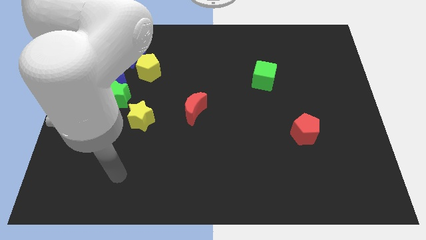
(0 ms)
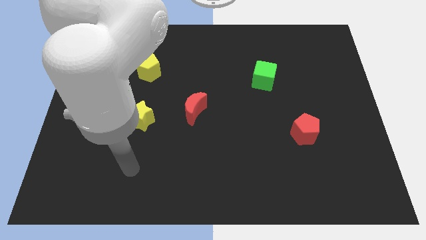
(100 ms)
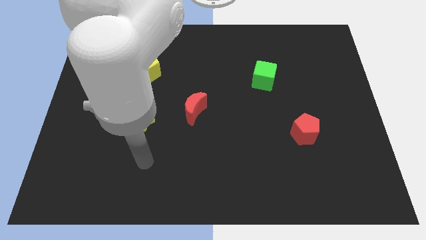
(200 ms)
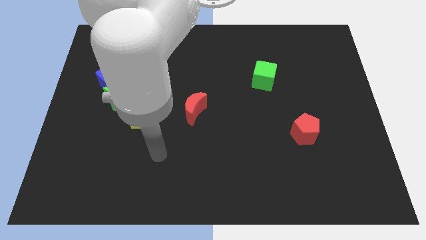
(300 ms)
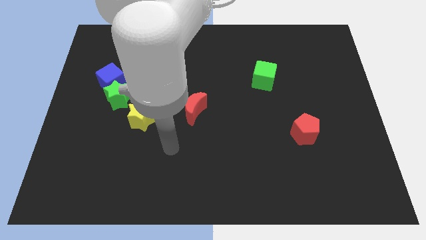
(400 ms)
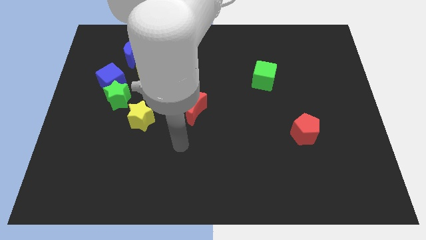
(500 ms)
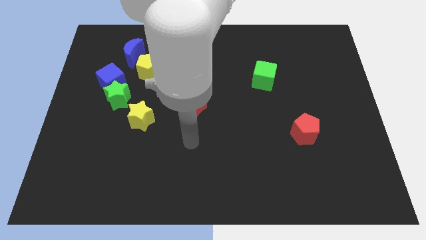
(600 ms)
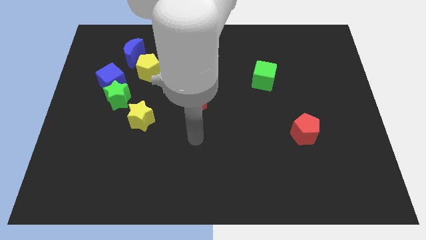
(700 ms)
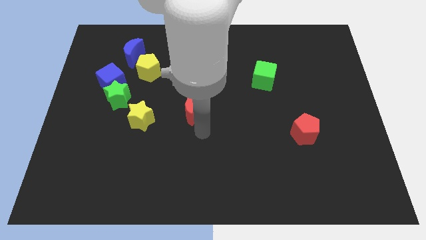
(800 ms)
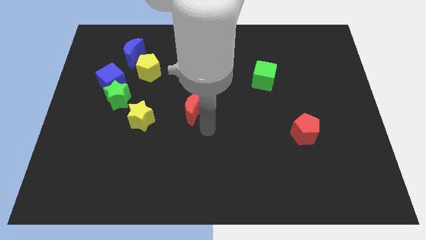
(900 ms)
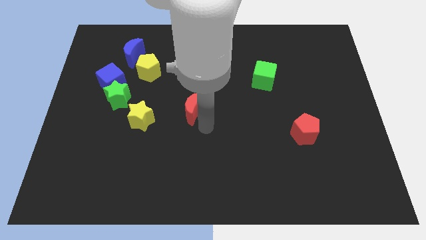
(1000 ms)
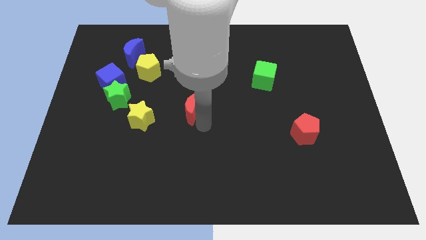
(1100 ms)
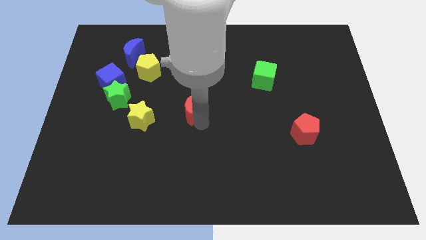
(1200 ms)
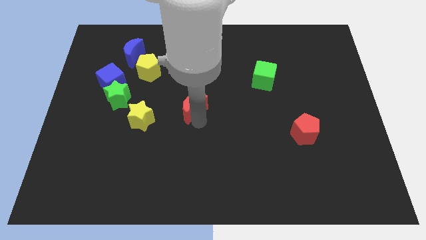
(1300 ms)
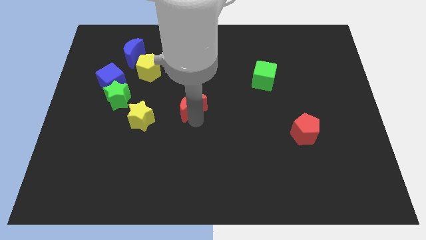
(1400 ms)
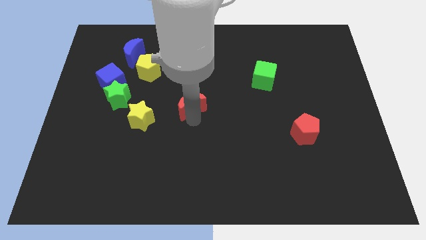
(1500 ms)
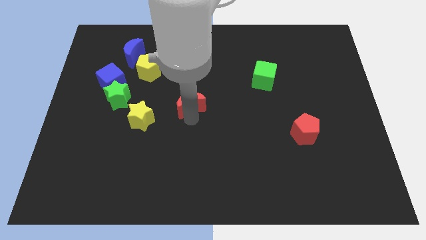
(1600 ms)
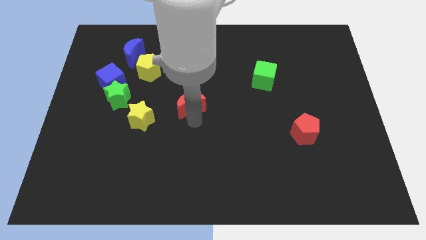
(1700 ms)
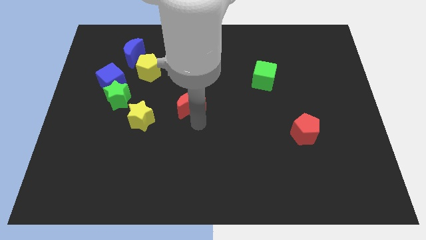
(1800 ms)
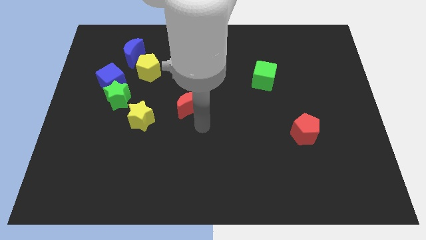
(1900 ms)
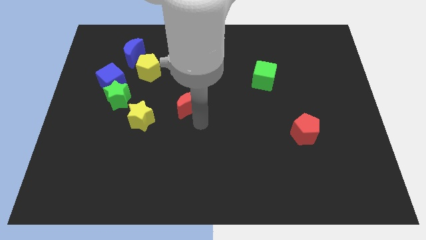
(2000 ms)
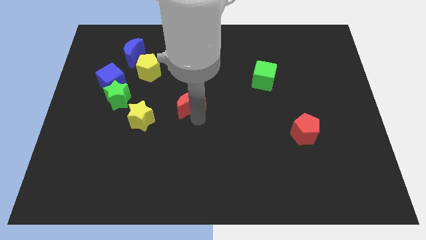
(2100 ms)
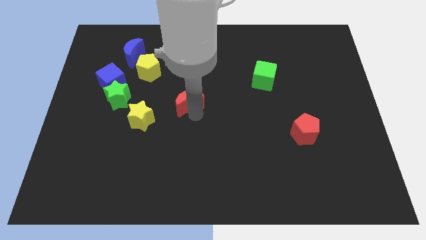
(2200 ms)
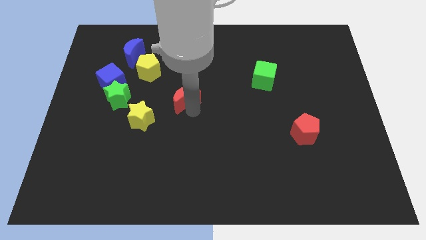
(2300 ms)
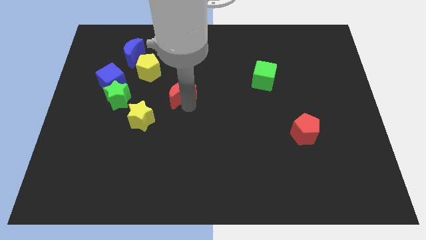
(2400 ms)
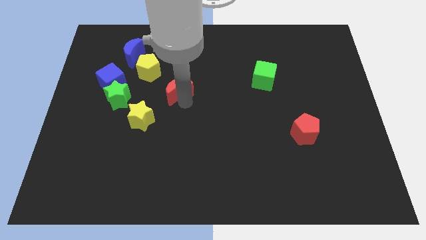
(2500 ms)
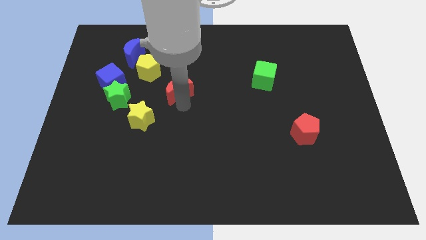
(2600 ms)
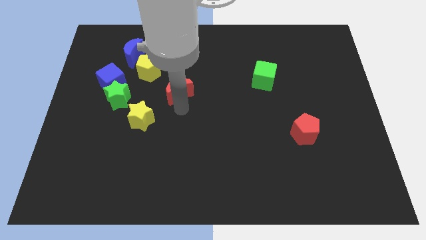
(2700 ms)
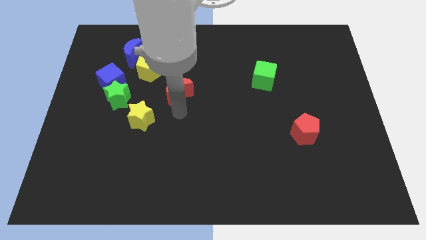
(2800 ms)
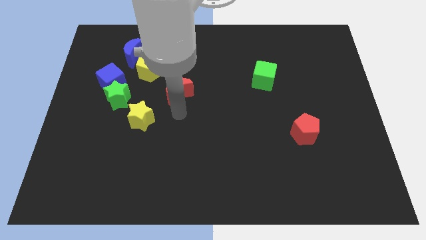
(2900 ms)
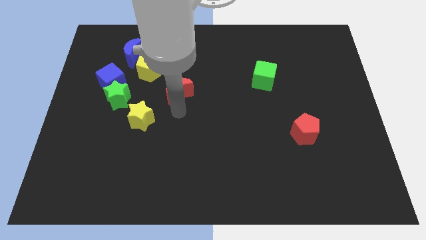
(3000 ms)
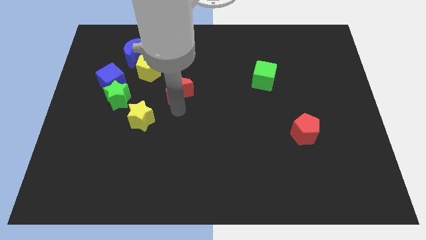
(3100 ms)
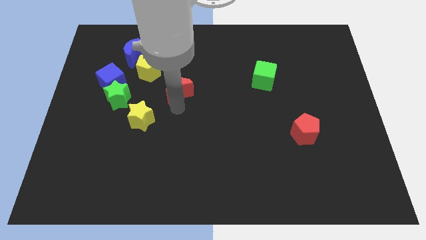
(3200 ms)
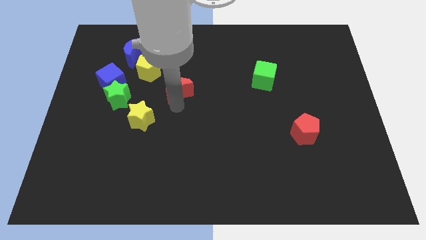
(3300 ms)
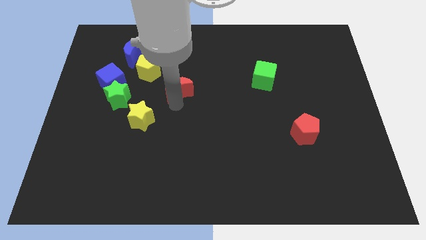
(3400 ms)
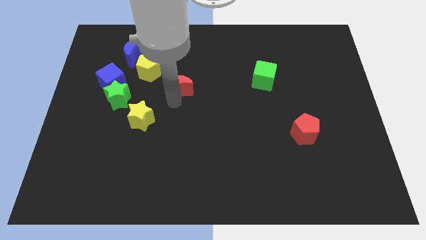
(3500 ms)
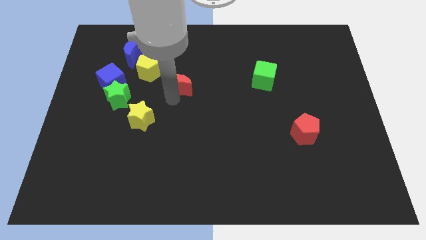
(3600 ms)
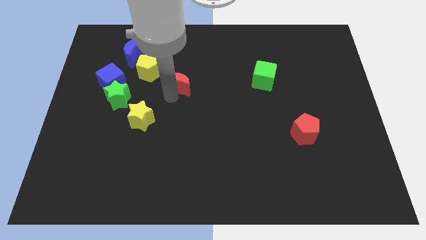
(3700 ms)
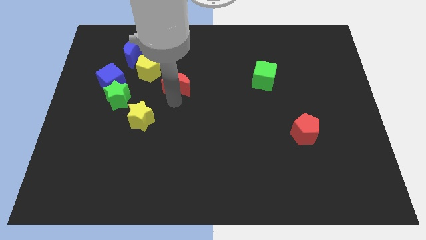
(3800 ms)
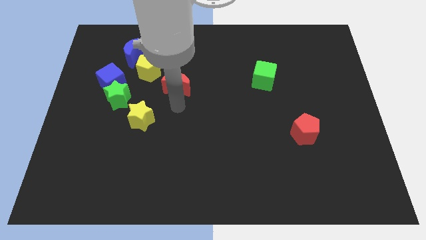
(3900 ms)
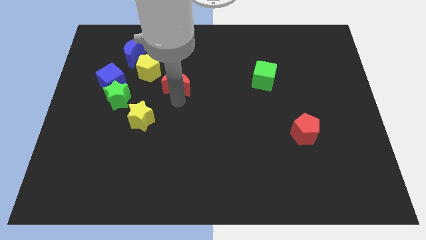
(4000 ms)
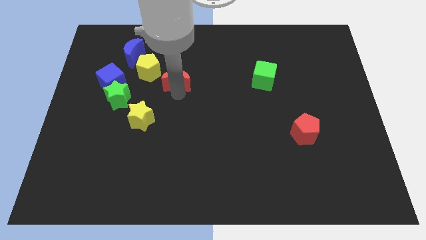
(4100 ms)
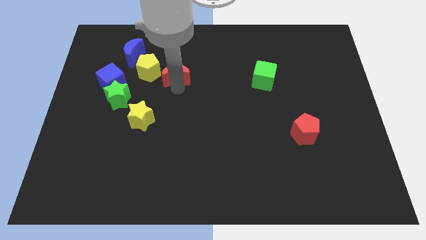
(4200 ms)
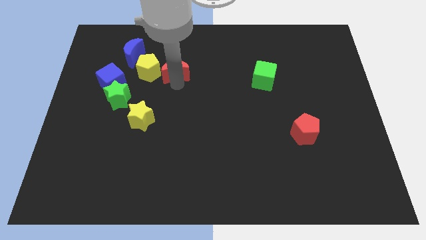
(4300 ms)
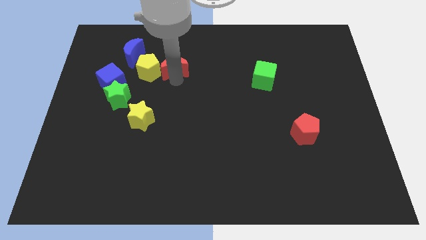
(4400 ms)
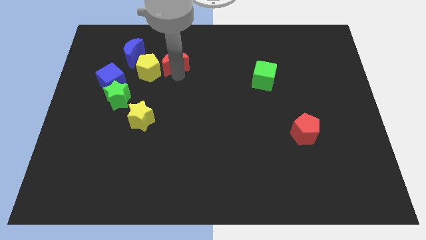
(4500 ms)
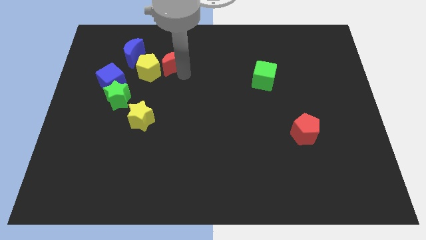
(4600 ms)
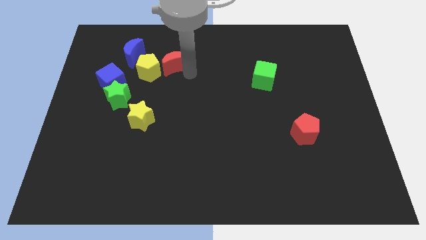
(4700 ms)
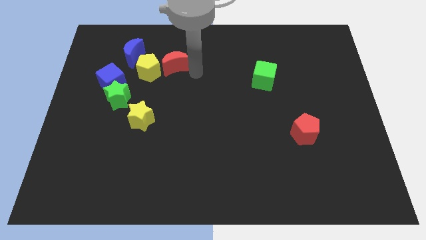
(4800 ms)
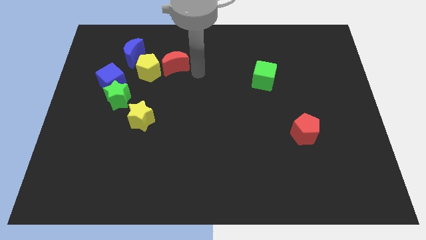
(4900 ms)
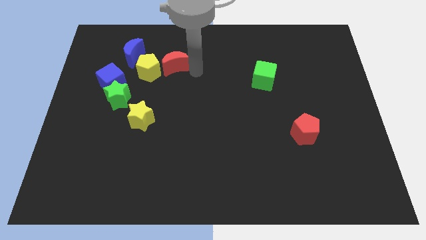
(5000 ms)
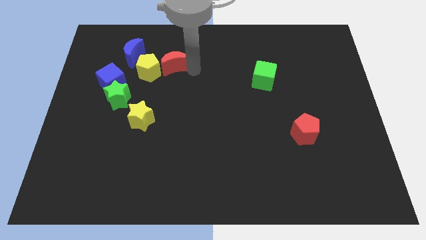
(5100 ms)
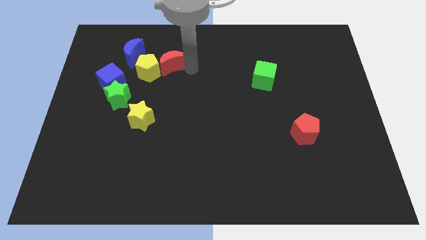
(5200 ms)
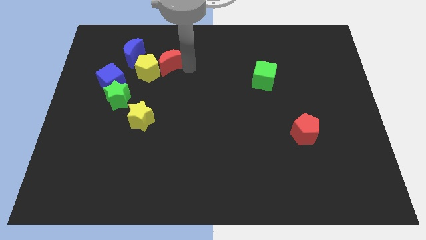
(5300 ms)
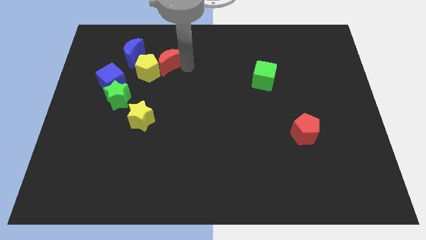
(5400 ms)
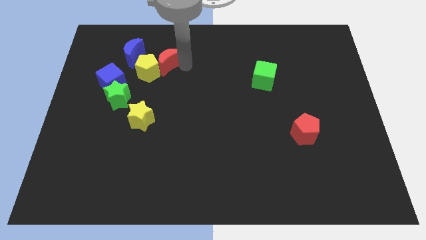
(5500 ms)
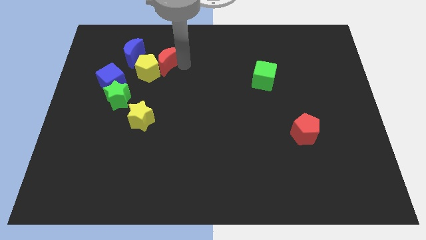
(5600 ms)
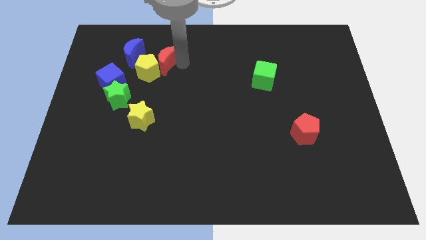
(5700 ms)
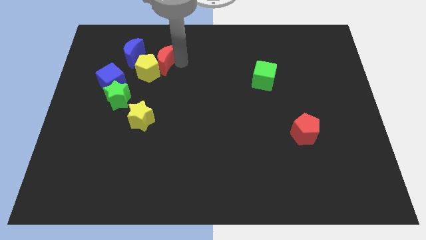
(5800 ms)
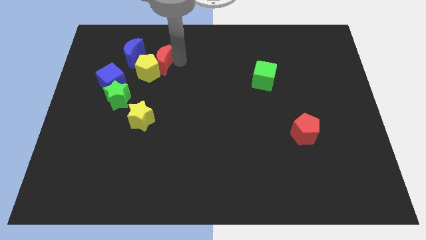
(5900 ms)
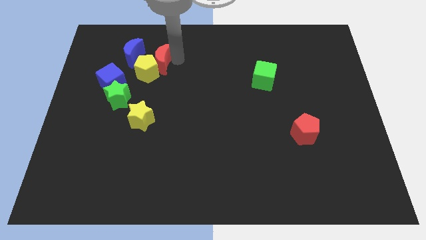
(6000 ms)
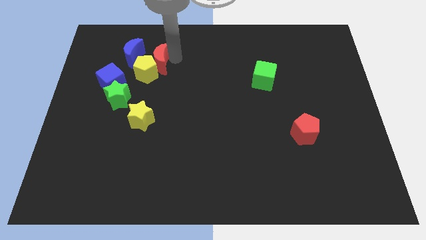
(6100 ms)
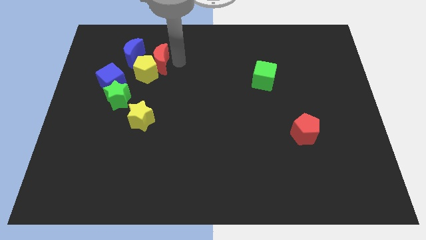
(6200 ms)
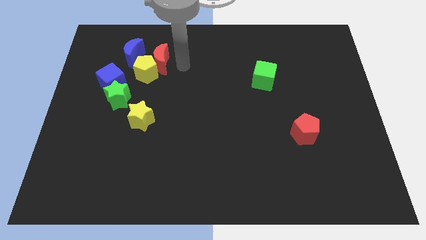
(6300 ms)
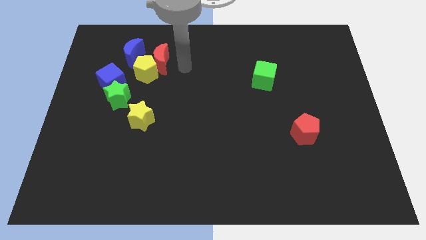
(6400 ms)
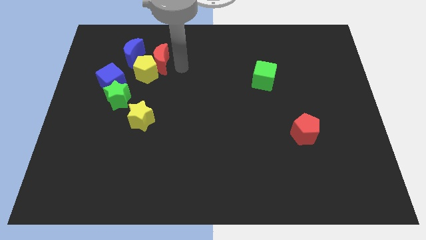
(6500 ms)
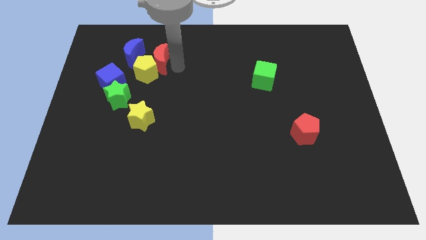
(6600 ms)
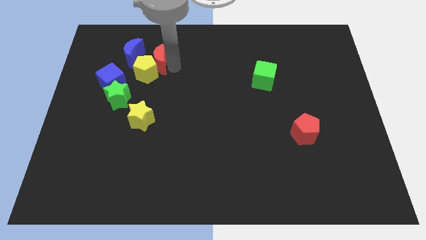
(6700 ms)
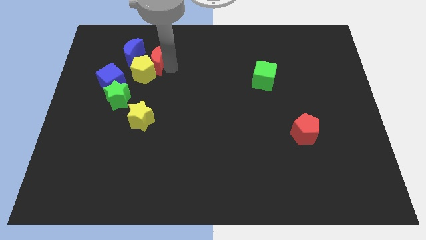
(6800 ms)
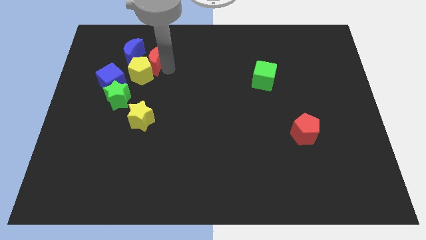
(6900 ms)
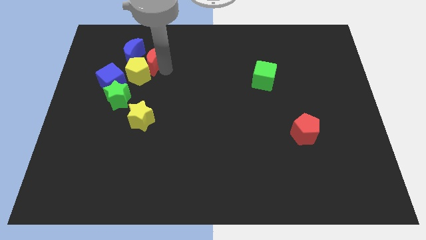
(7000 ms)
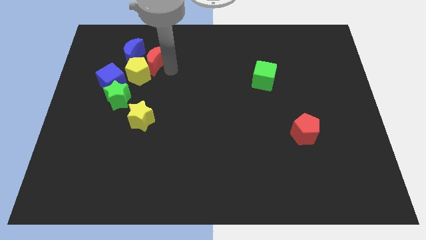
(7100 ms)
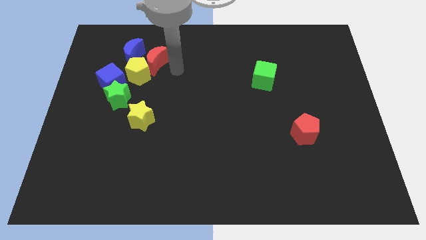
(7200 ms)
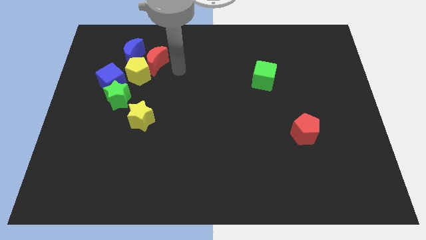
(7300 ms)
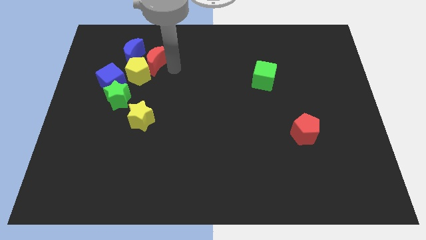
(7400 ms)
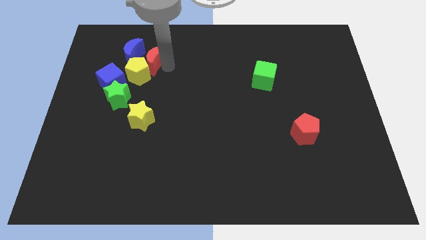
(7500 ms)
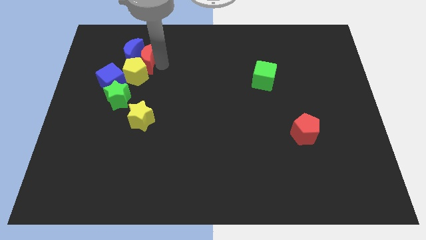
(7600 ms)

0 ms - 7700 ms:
move the red moon to the blue moon

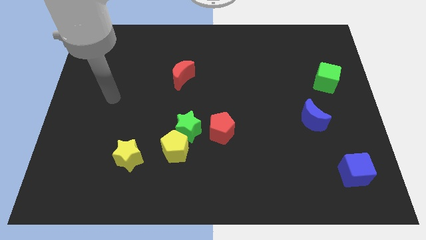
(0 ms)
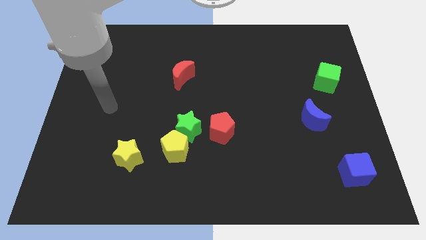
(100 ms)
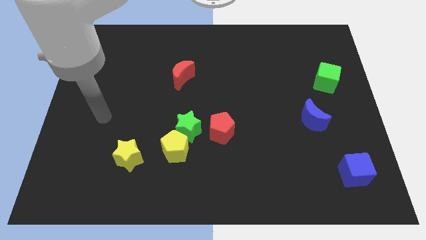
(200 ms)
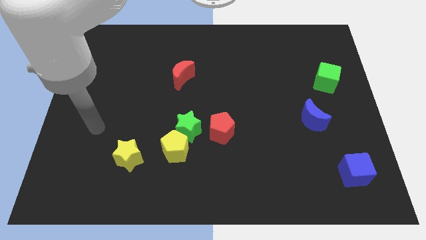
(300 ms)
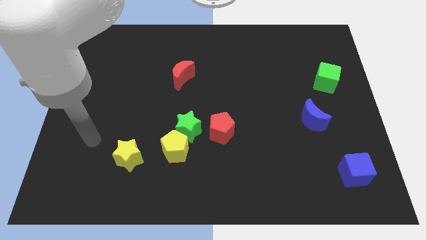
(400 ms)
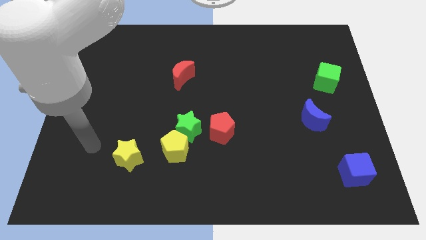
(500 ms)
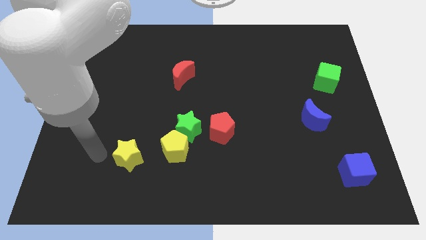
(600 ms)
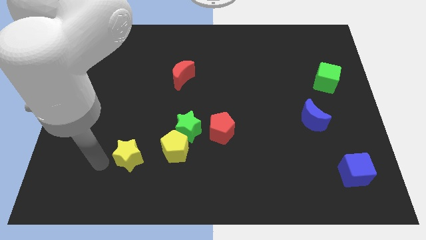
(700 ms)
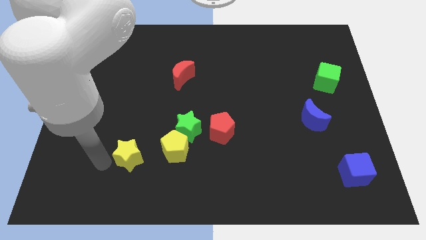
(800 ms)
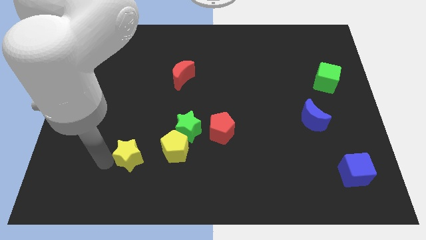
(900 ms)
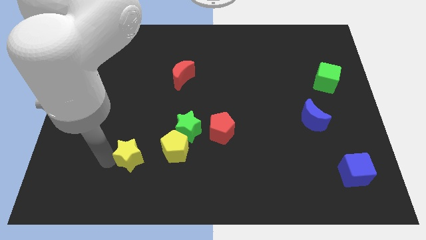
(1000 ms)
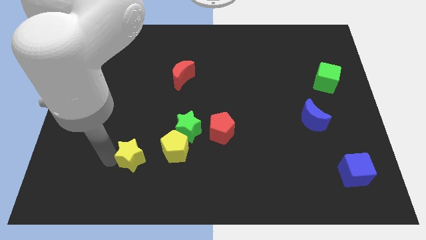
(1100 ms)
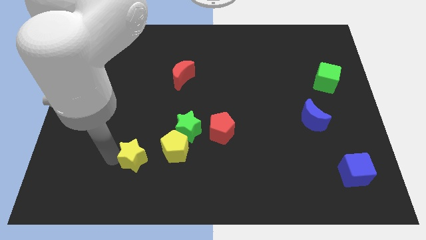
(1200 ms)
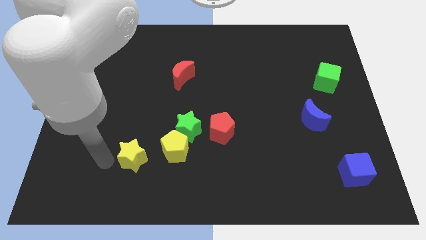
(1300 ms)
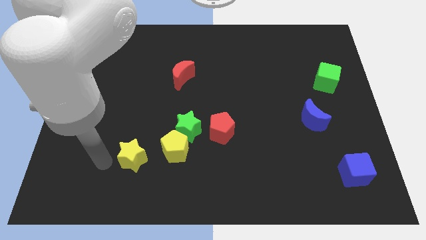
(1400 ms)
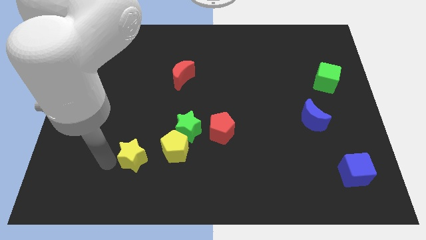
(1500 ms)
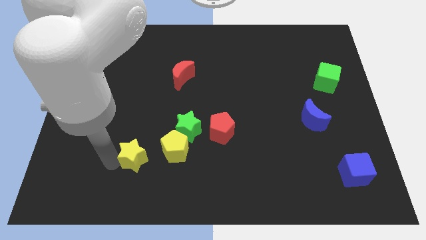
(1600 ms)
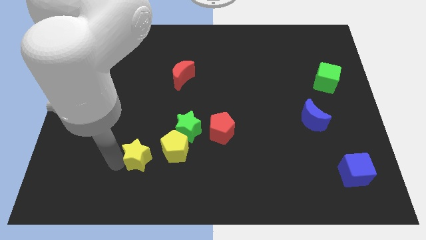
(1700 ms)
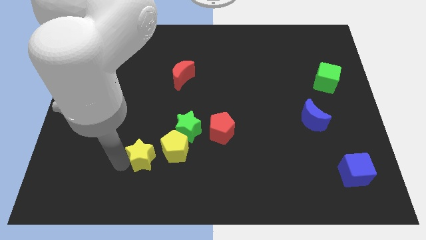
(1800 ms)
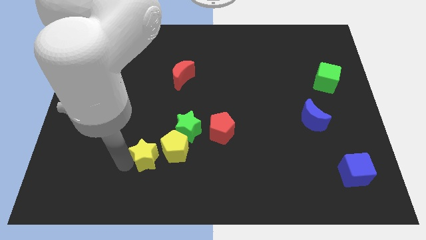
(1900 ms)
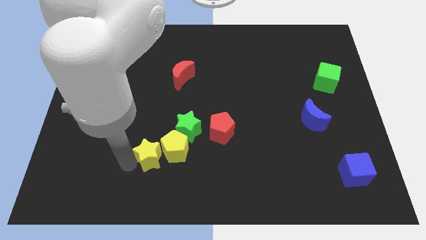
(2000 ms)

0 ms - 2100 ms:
slide the yellow star close to the yellow pentagon
